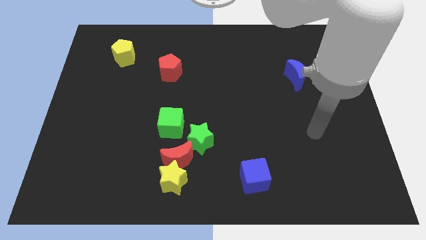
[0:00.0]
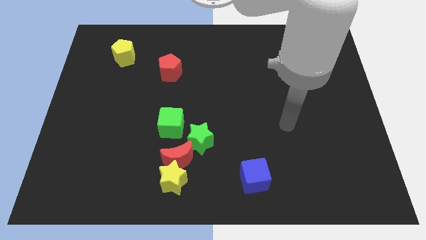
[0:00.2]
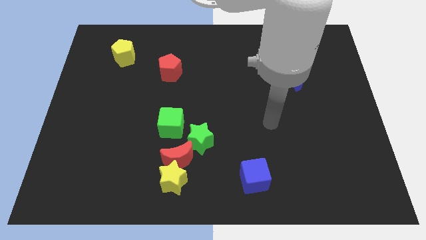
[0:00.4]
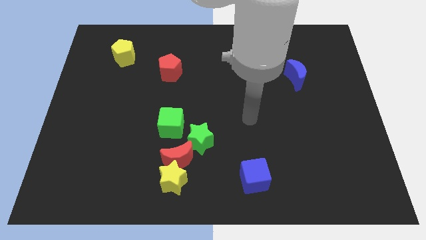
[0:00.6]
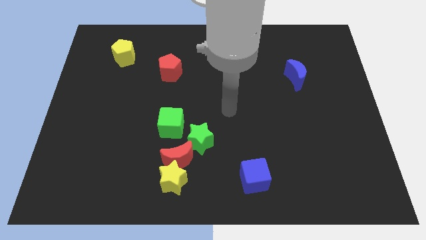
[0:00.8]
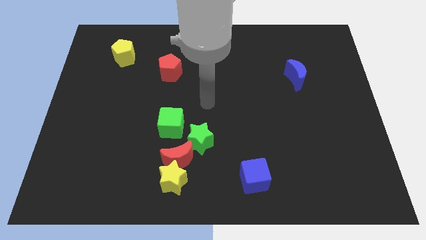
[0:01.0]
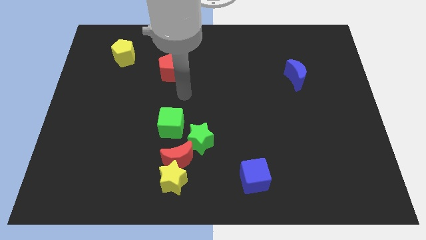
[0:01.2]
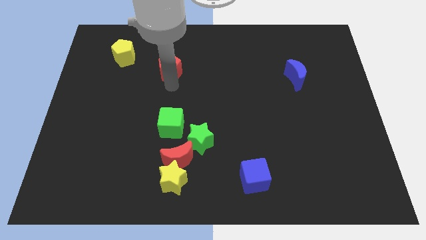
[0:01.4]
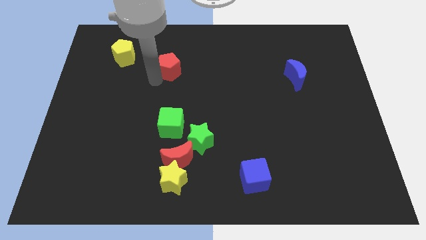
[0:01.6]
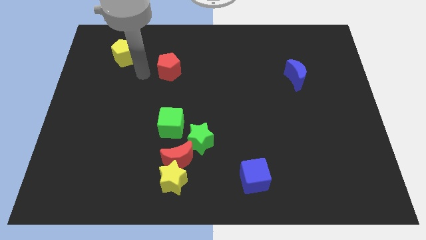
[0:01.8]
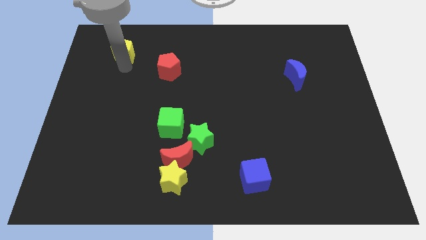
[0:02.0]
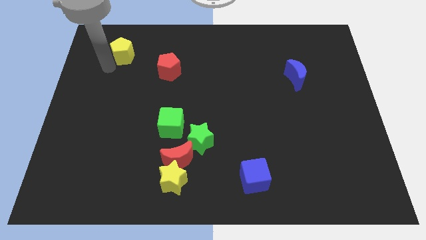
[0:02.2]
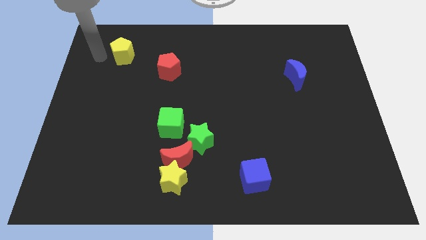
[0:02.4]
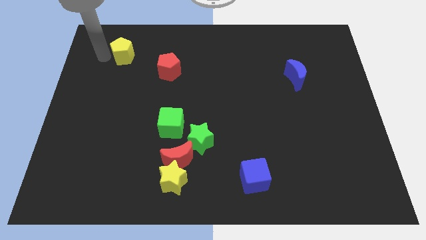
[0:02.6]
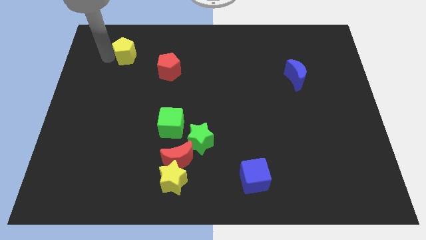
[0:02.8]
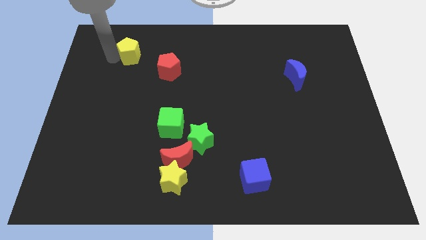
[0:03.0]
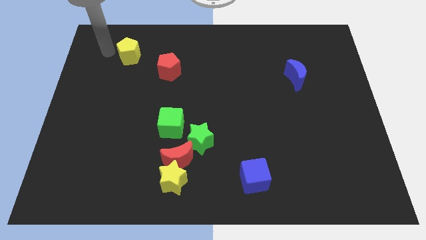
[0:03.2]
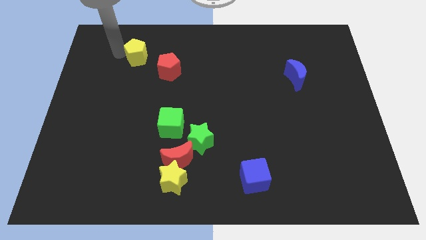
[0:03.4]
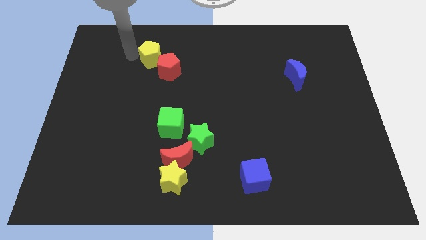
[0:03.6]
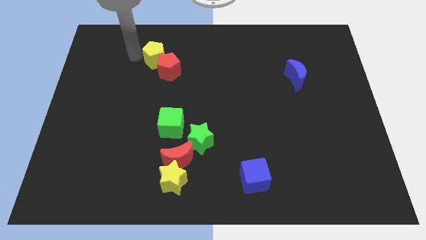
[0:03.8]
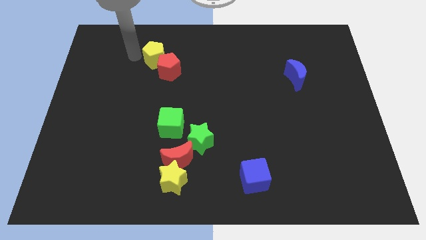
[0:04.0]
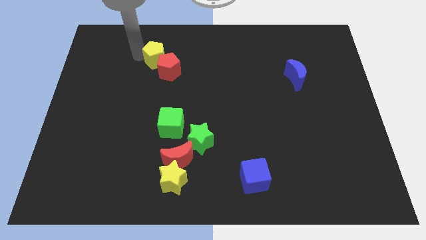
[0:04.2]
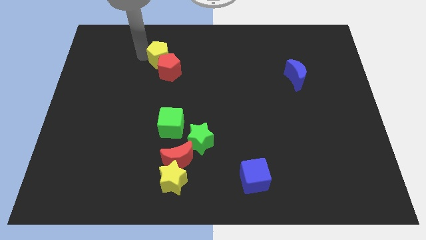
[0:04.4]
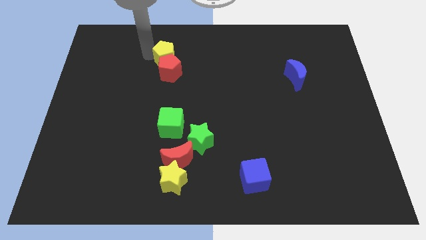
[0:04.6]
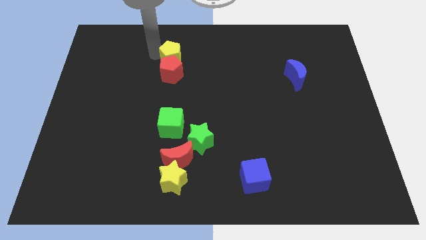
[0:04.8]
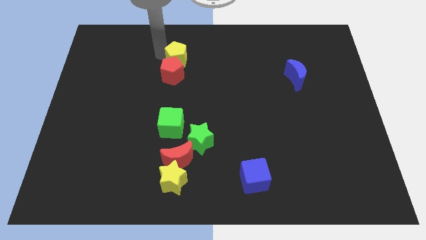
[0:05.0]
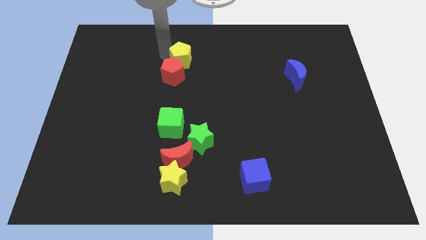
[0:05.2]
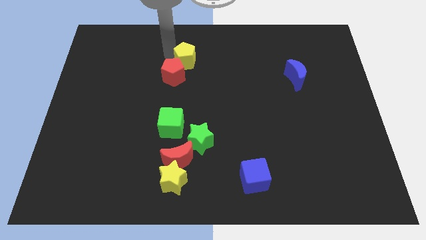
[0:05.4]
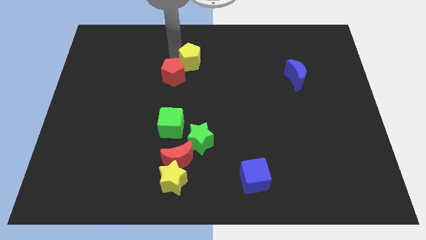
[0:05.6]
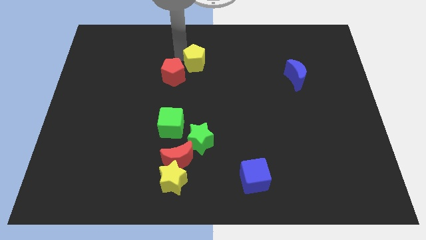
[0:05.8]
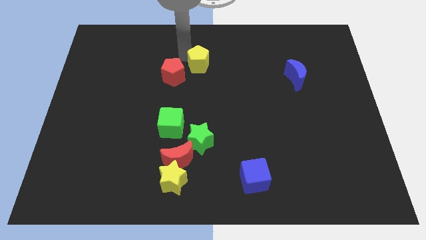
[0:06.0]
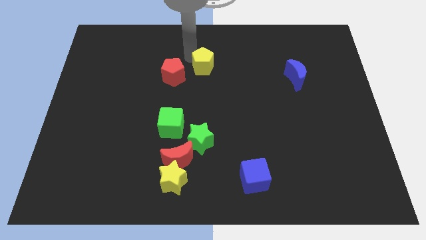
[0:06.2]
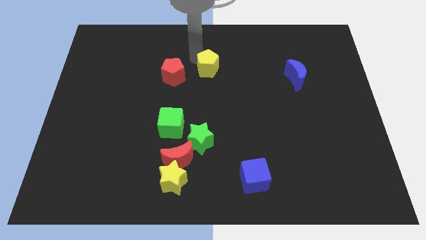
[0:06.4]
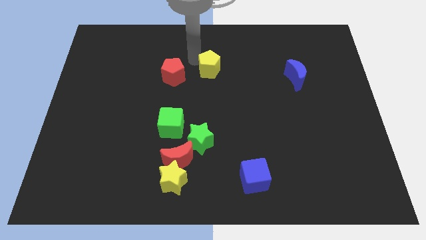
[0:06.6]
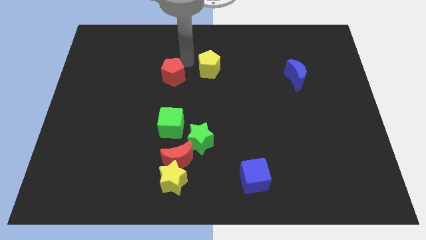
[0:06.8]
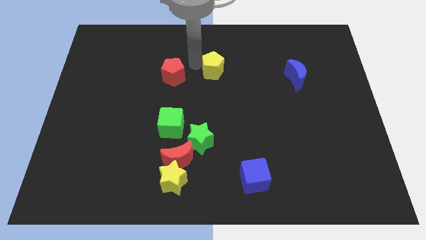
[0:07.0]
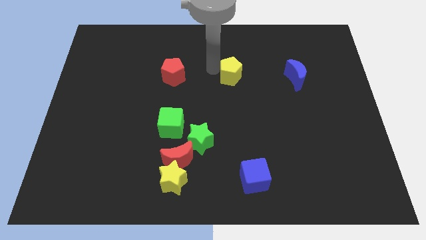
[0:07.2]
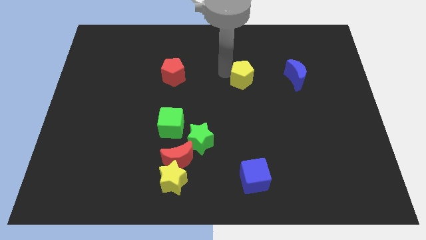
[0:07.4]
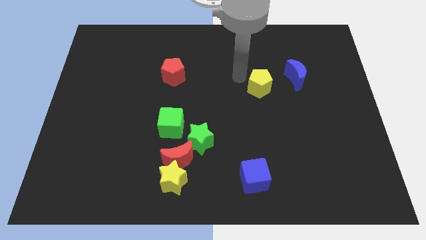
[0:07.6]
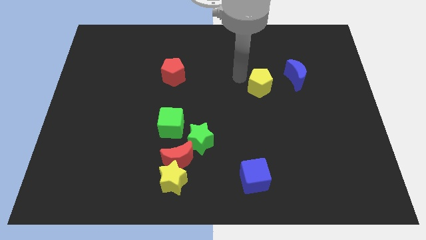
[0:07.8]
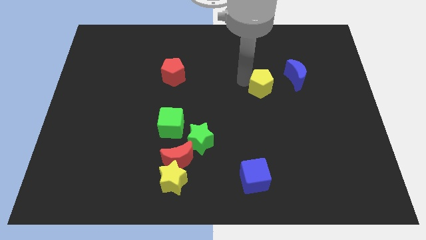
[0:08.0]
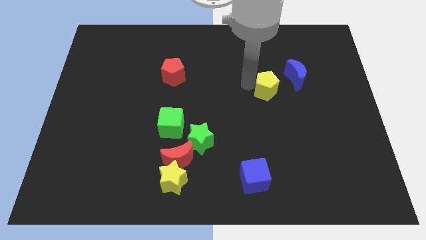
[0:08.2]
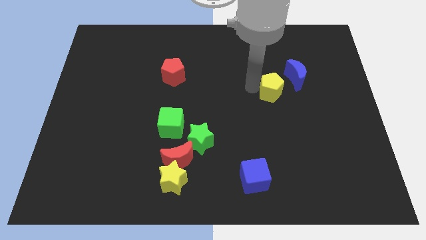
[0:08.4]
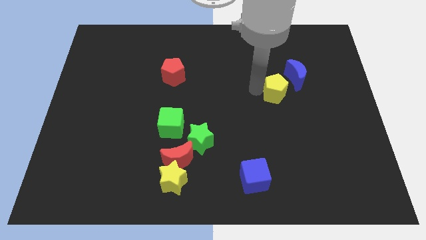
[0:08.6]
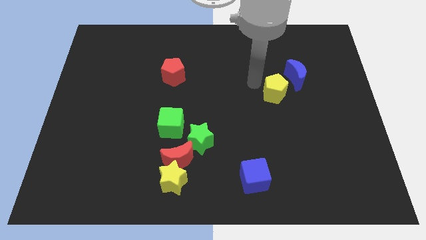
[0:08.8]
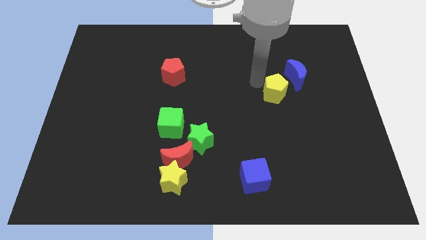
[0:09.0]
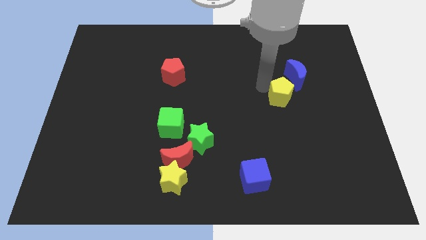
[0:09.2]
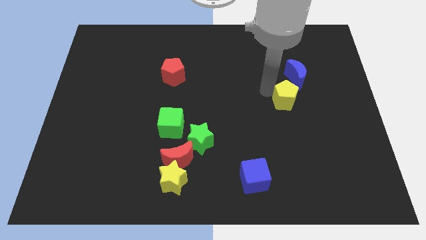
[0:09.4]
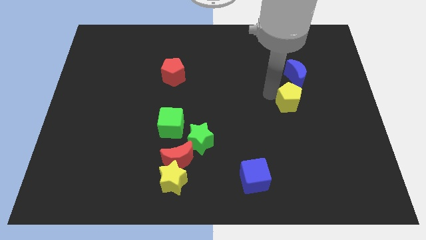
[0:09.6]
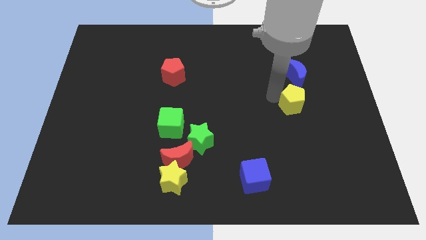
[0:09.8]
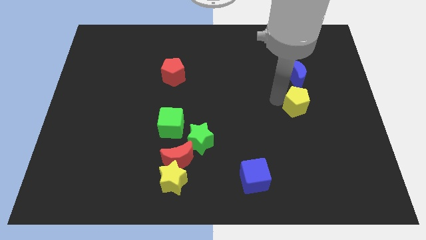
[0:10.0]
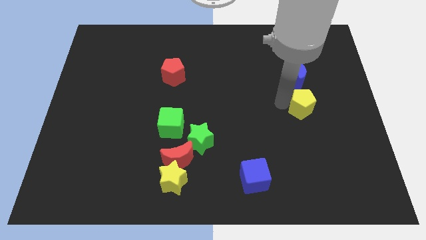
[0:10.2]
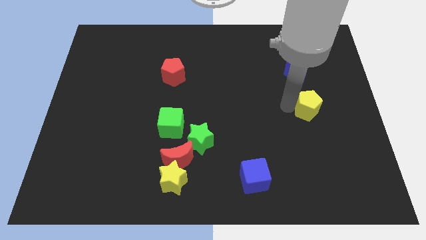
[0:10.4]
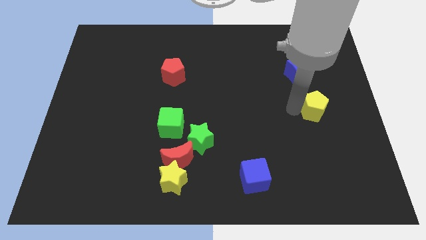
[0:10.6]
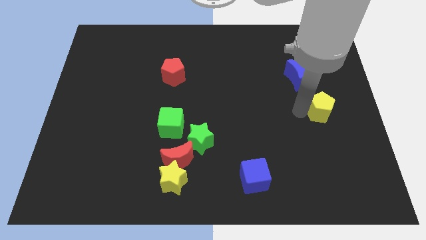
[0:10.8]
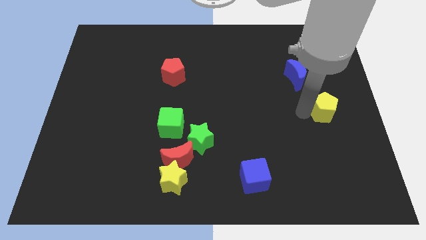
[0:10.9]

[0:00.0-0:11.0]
push the yellow pentagon to the right side of the board

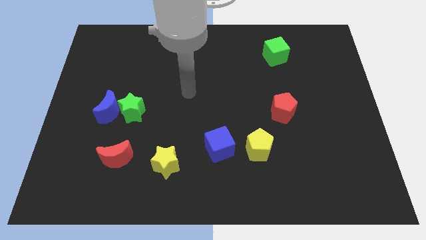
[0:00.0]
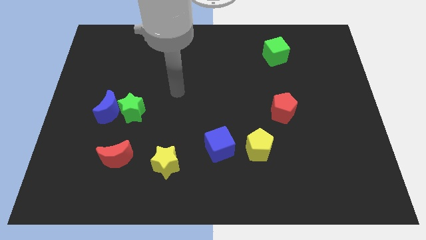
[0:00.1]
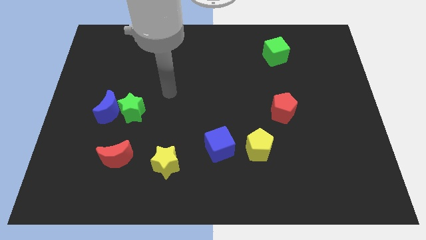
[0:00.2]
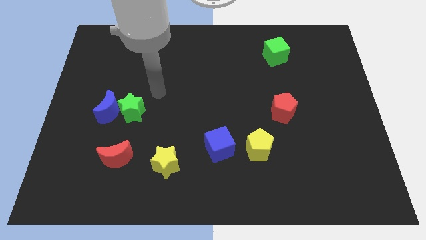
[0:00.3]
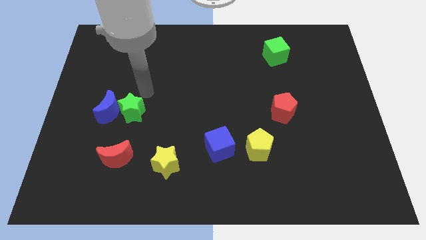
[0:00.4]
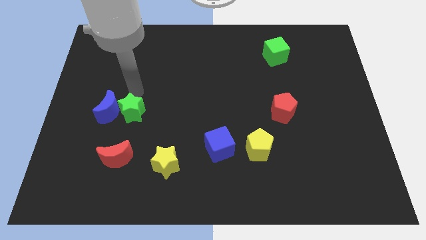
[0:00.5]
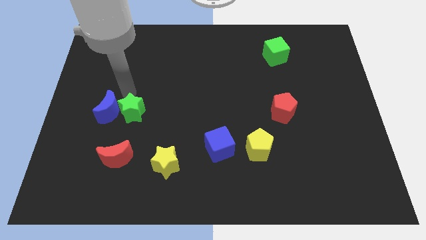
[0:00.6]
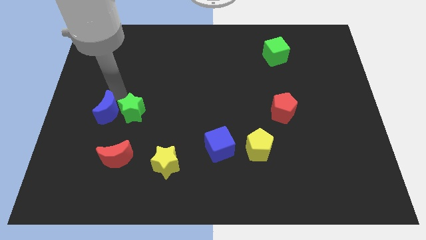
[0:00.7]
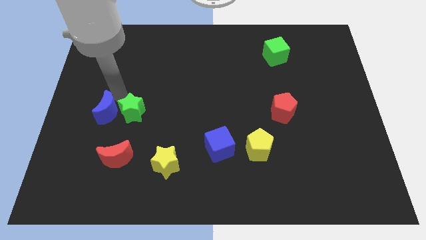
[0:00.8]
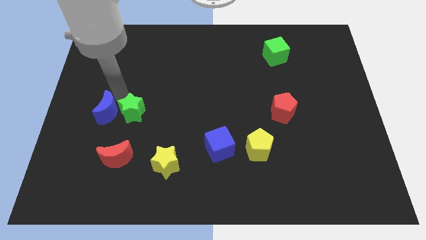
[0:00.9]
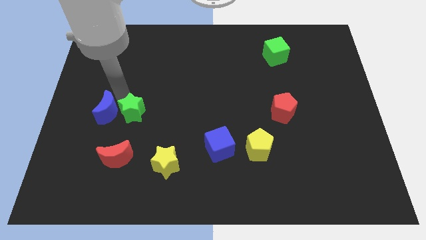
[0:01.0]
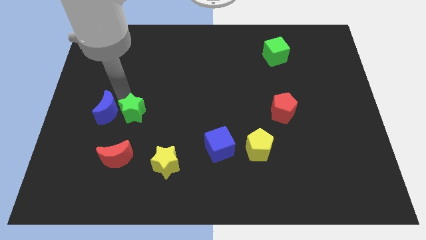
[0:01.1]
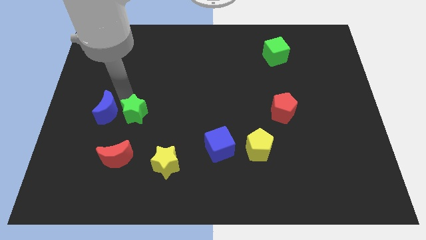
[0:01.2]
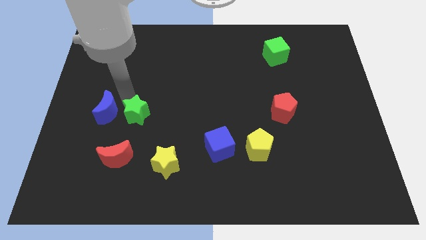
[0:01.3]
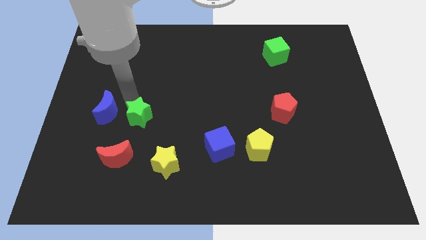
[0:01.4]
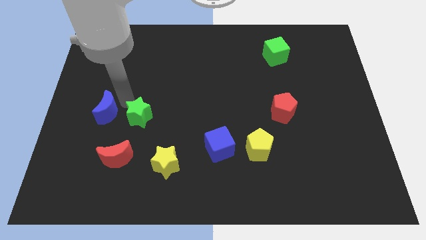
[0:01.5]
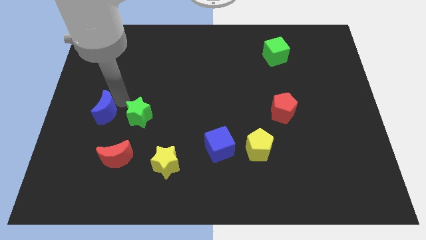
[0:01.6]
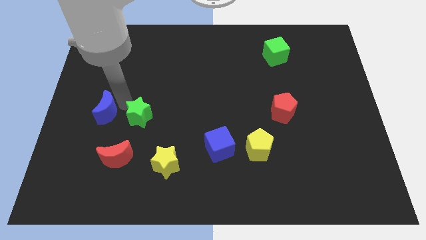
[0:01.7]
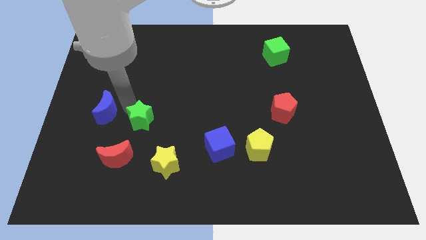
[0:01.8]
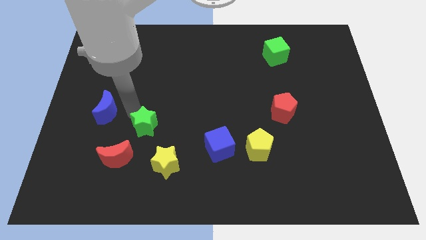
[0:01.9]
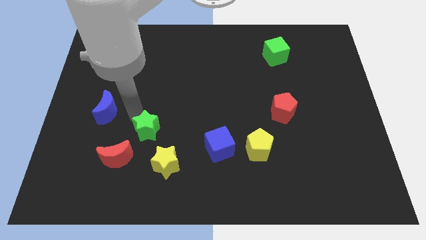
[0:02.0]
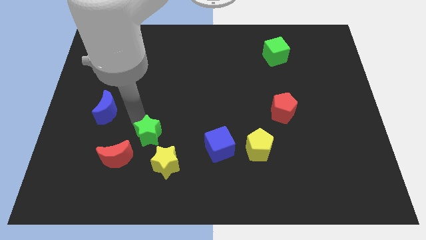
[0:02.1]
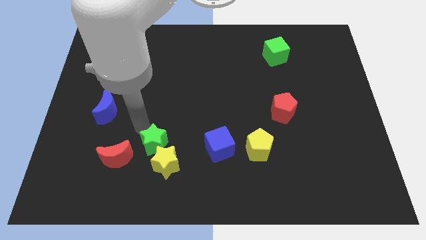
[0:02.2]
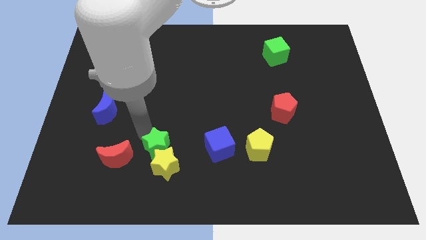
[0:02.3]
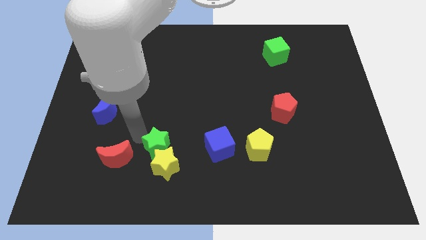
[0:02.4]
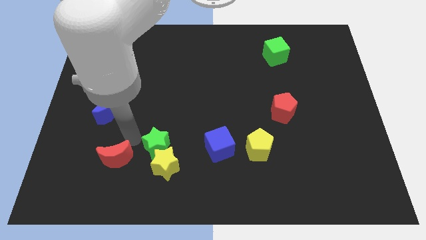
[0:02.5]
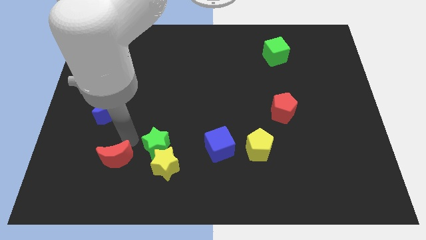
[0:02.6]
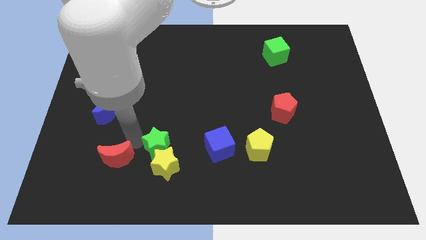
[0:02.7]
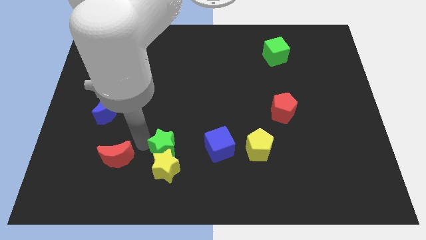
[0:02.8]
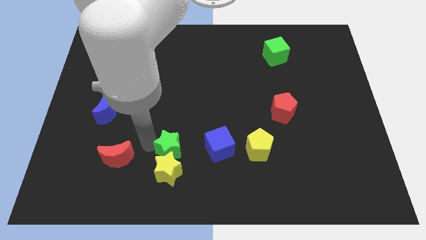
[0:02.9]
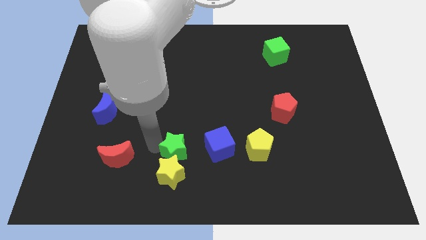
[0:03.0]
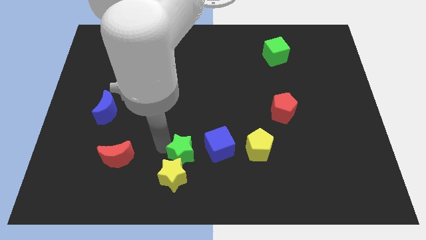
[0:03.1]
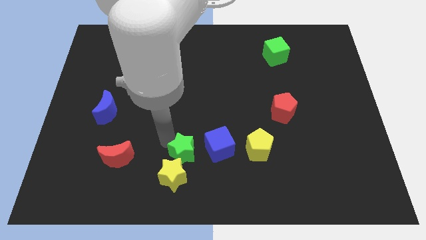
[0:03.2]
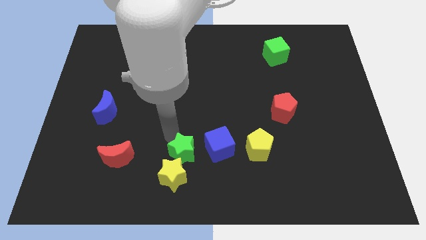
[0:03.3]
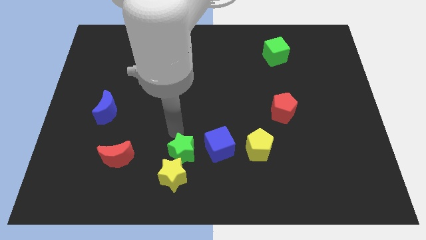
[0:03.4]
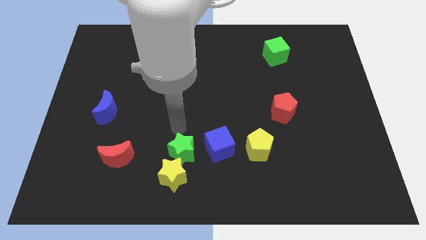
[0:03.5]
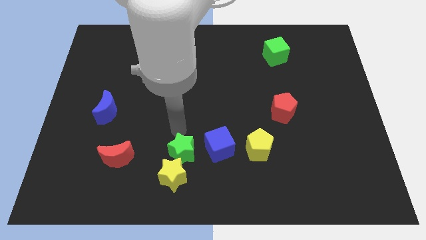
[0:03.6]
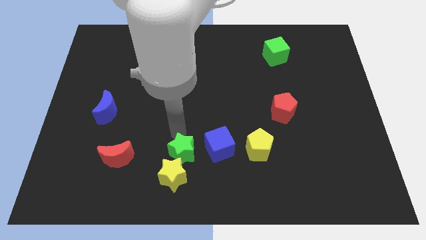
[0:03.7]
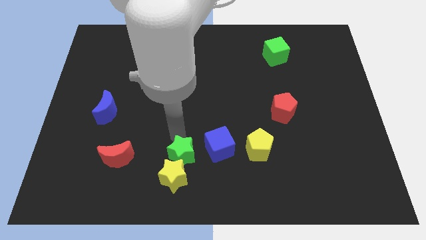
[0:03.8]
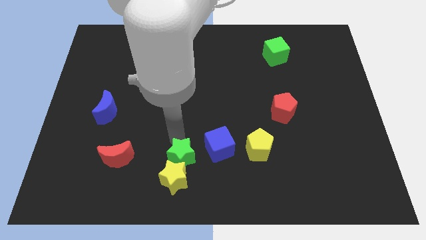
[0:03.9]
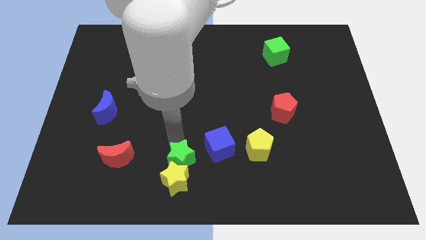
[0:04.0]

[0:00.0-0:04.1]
push the green star to the bottom side
